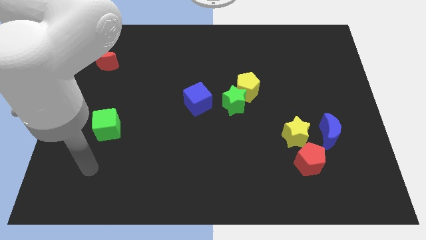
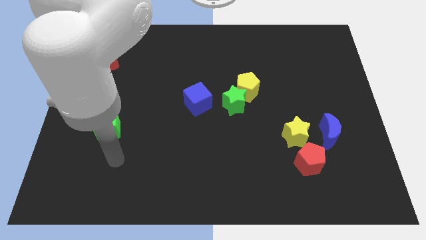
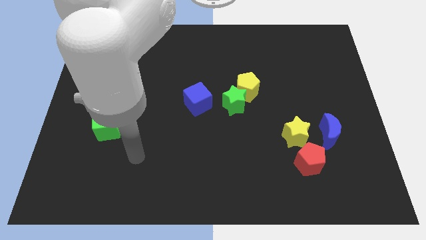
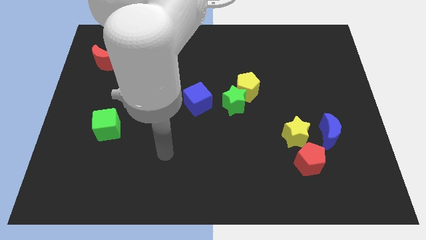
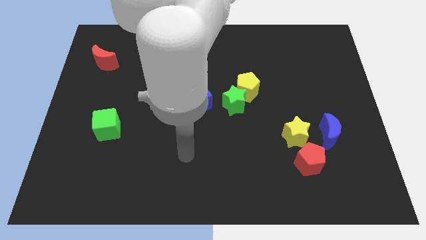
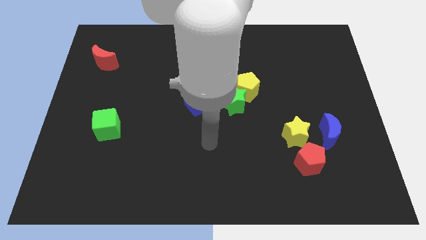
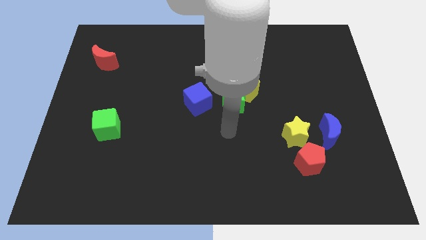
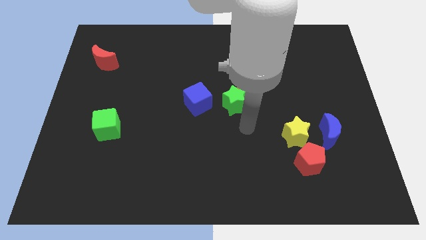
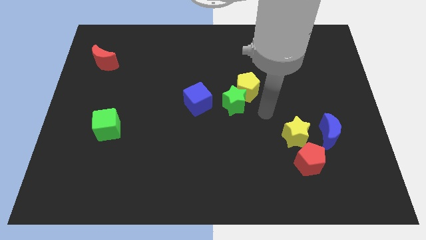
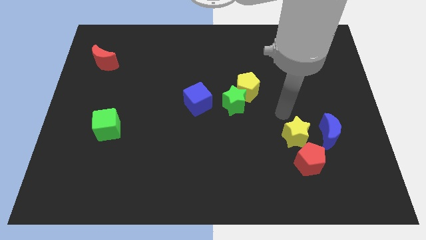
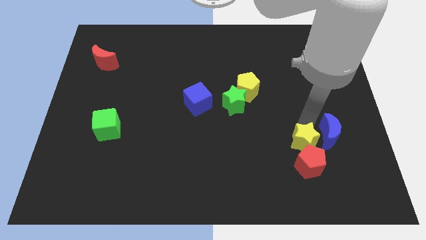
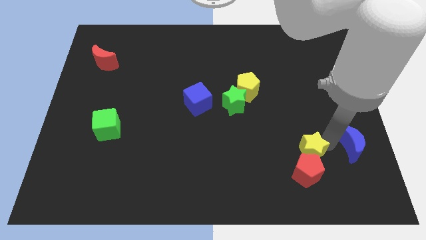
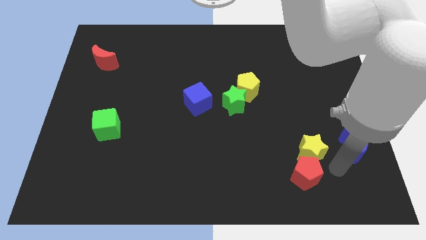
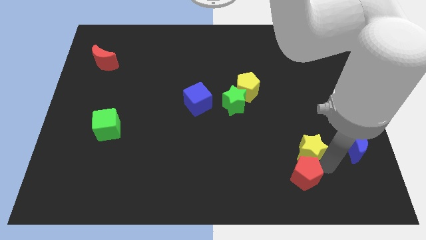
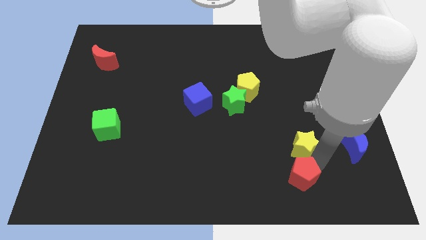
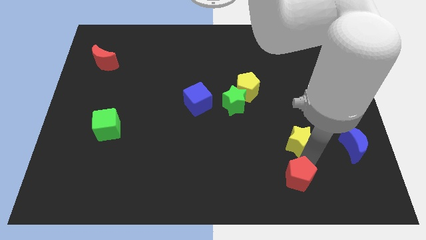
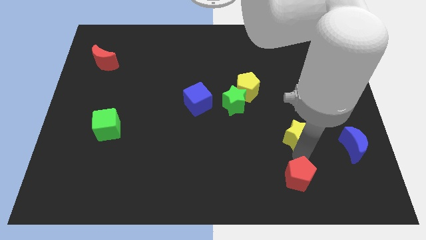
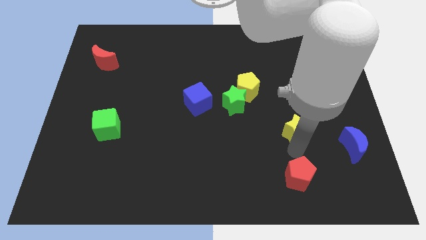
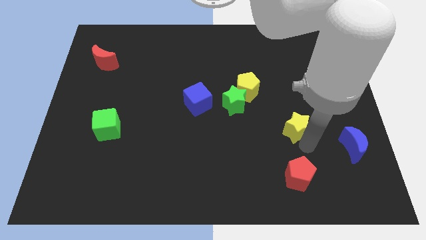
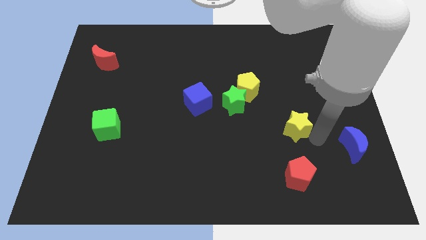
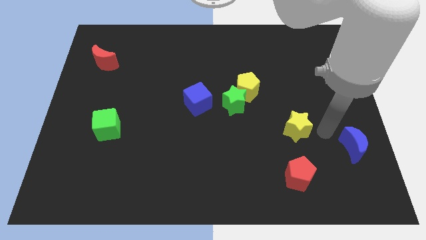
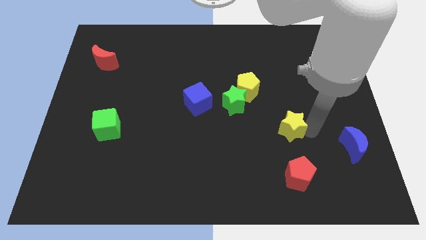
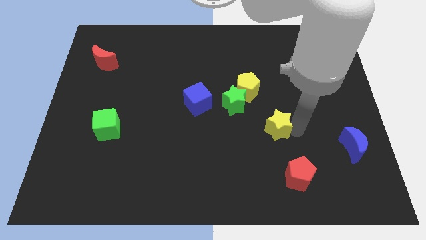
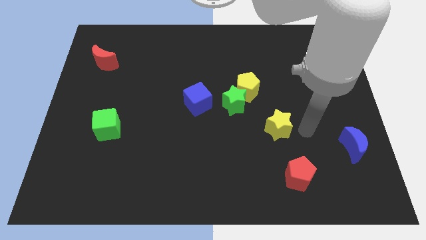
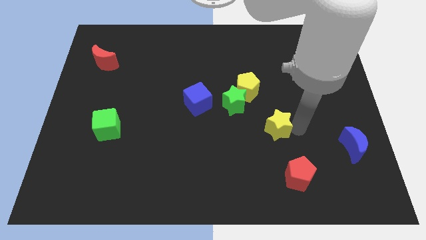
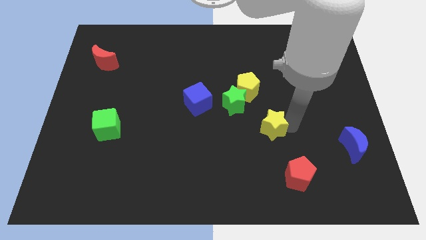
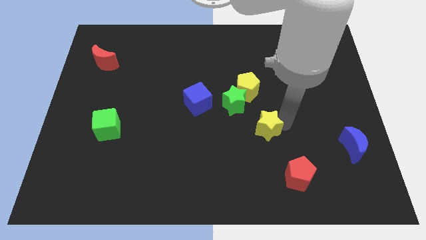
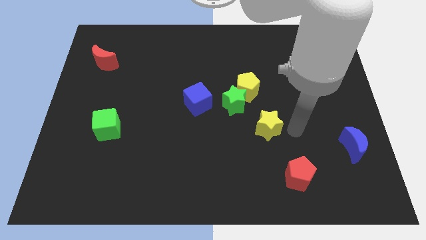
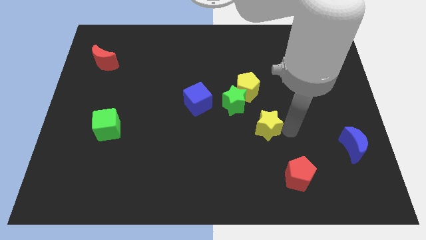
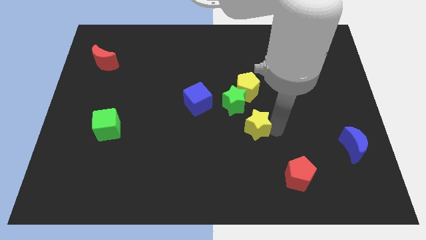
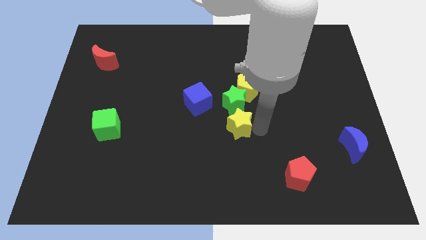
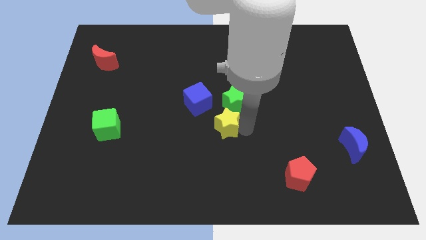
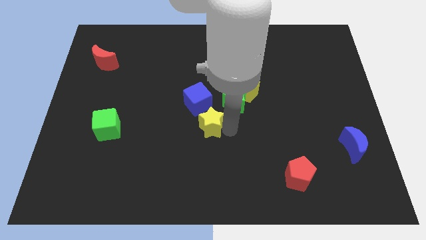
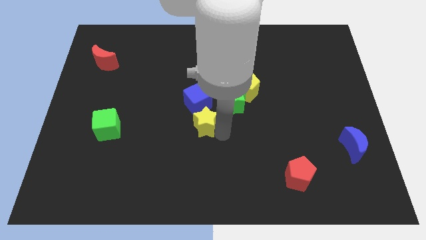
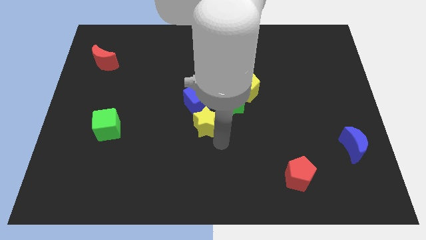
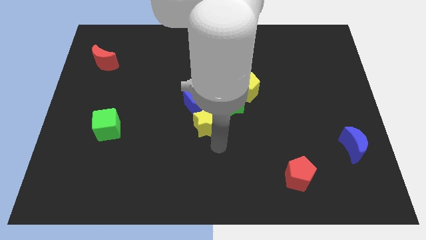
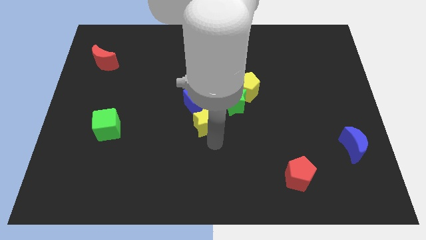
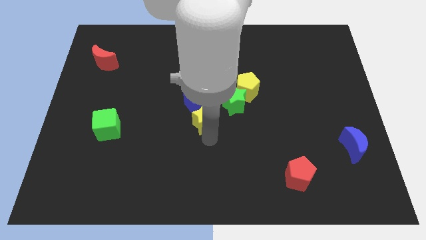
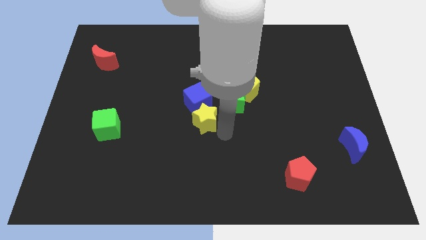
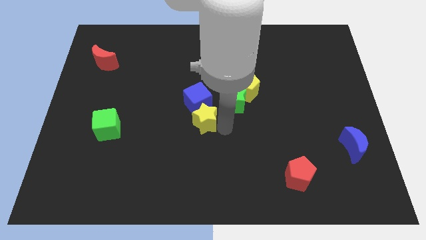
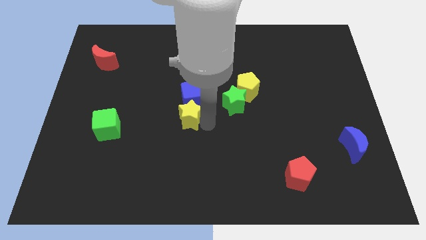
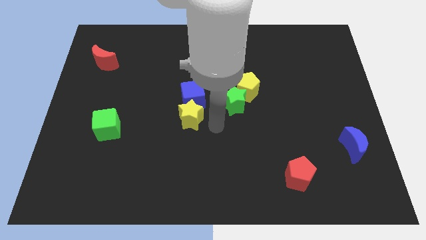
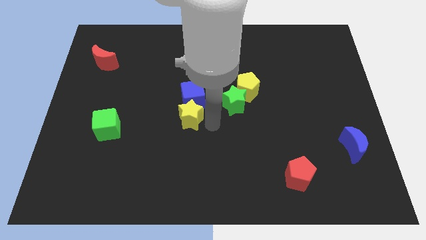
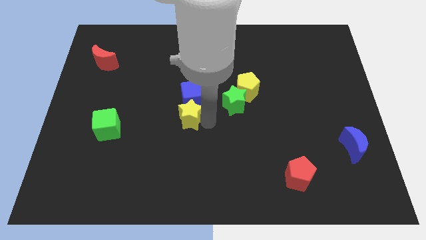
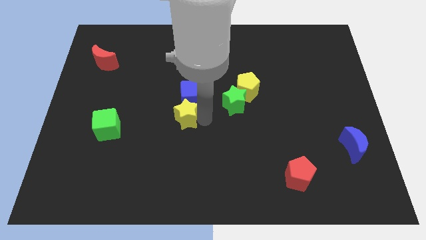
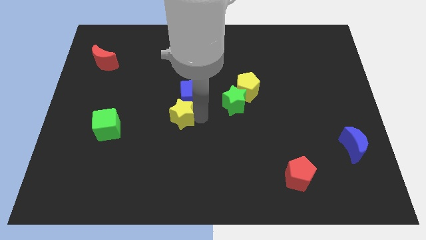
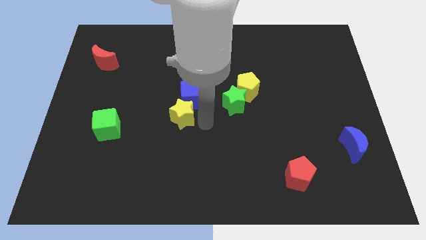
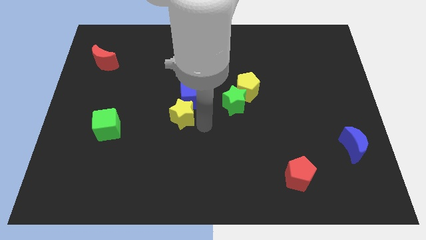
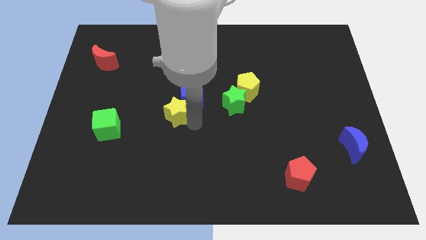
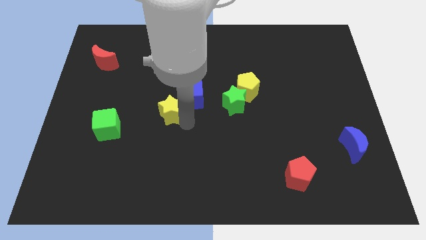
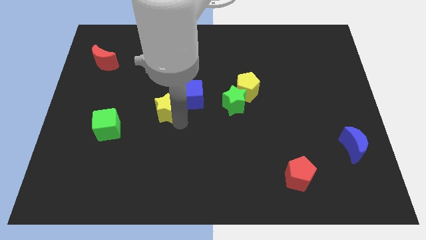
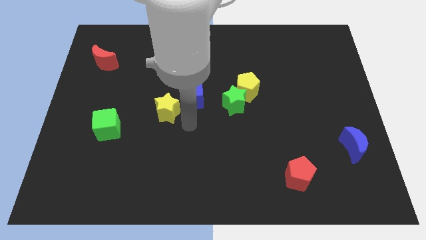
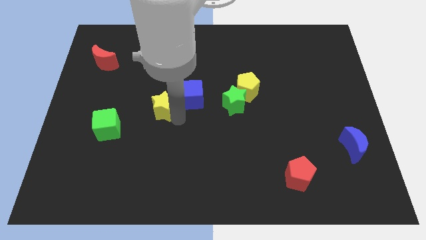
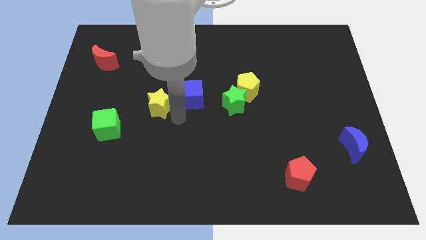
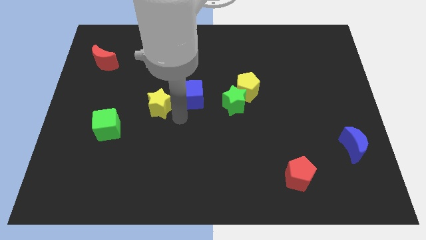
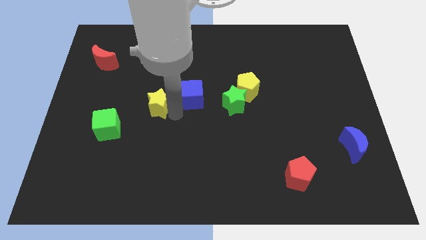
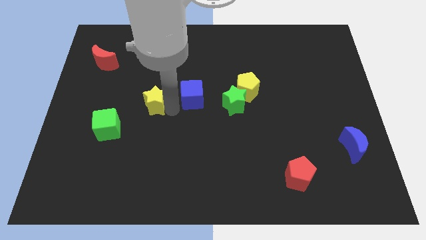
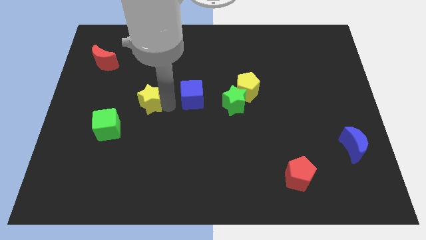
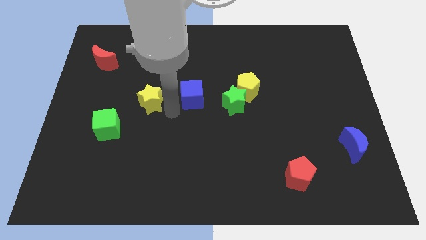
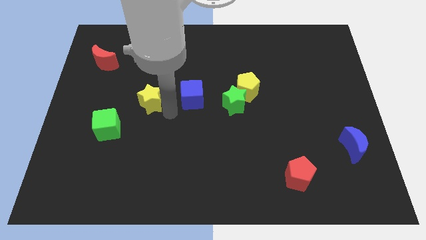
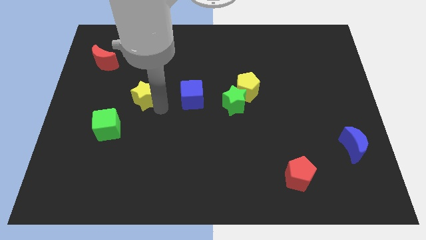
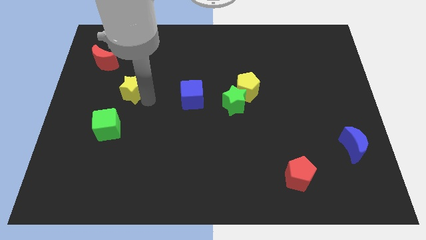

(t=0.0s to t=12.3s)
push the yellow star to the top of the green cube

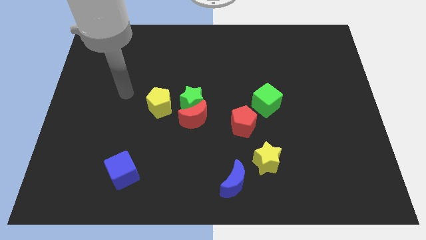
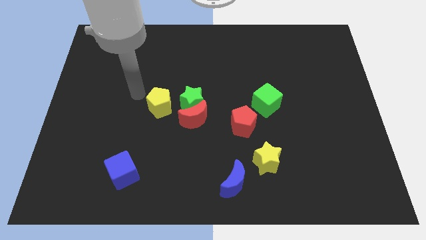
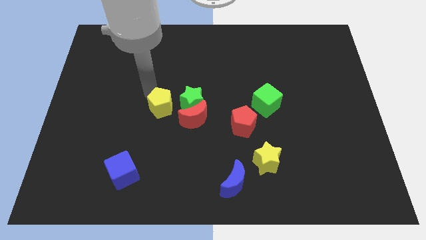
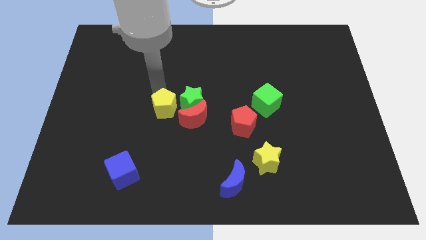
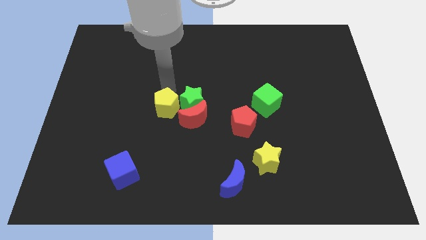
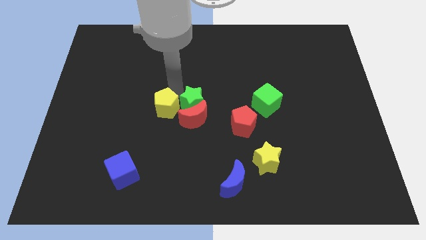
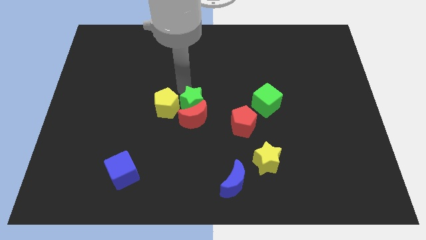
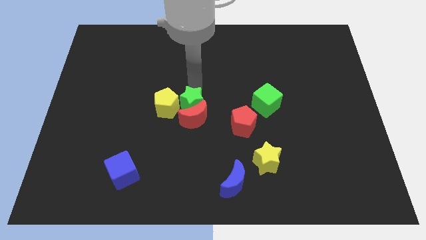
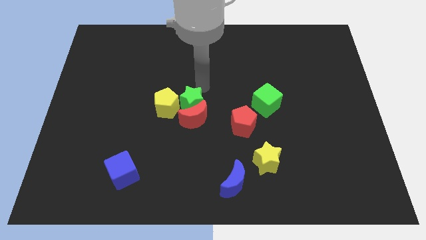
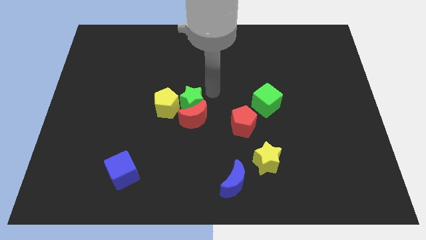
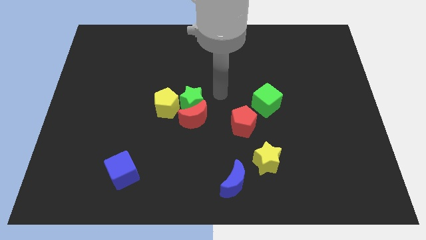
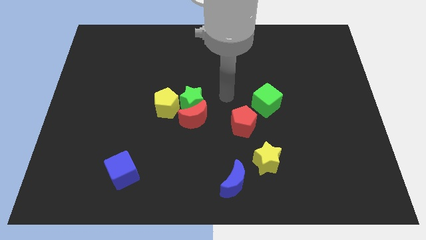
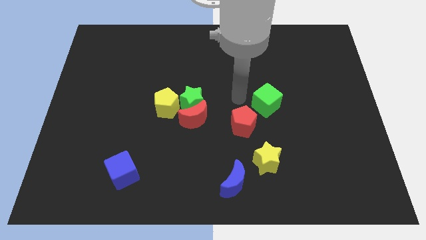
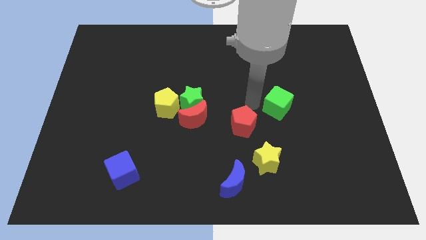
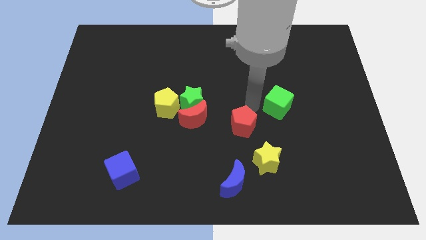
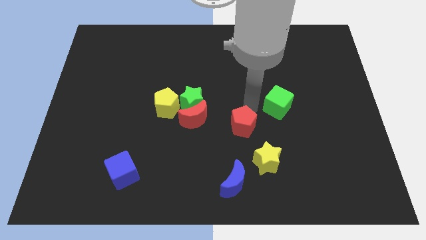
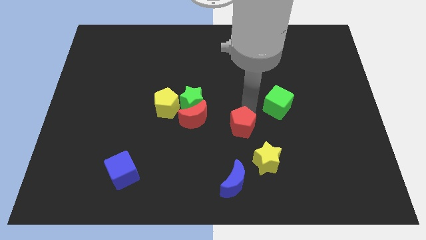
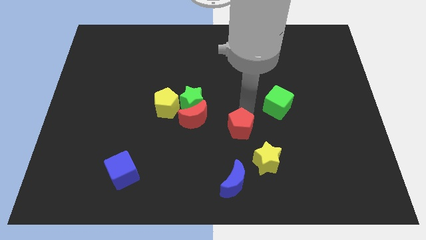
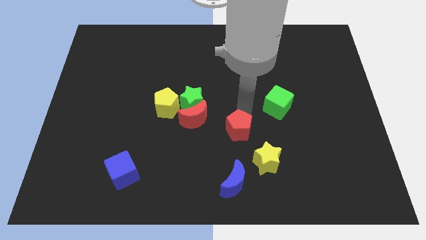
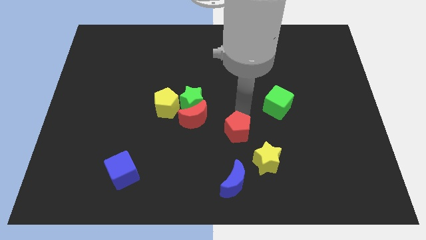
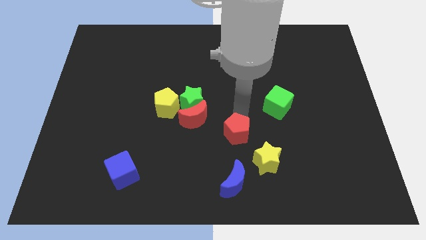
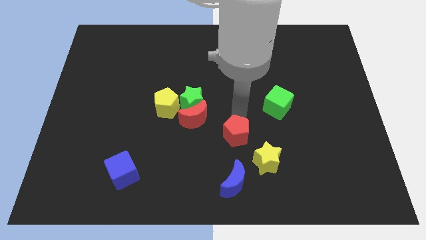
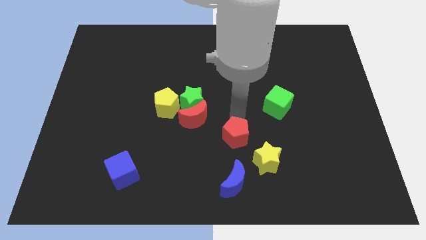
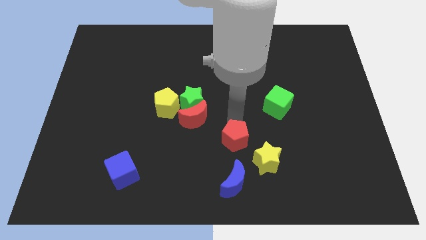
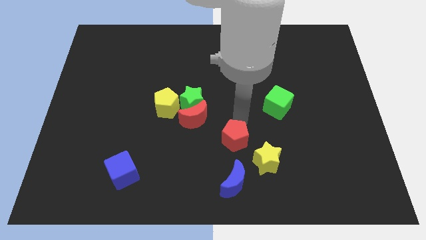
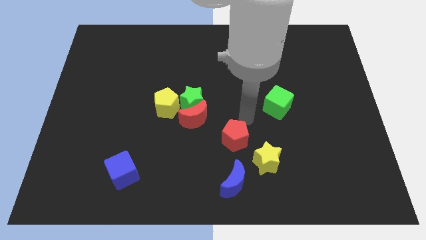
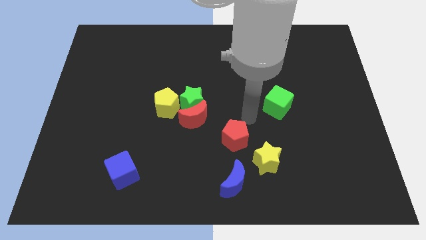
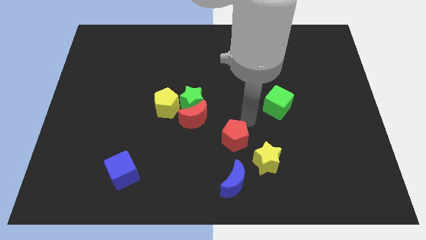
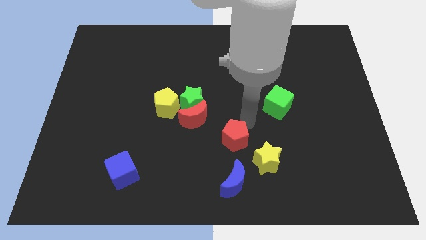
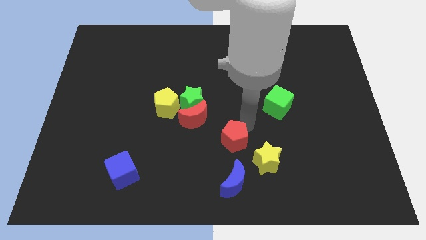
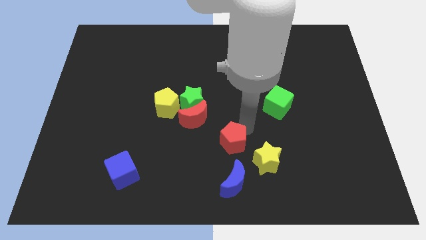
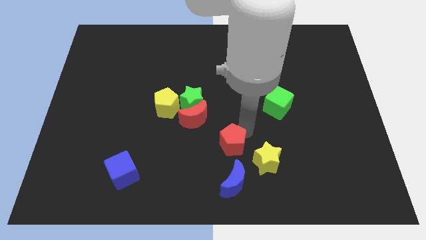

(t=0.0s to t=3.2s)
move the red pentagon left of the yellow star
